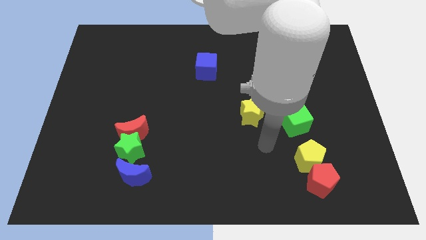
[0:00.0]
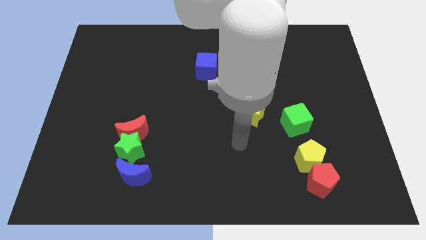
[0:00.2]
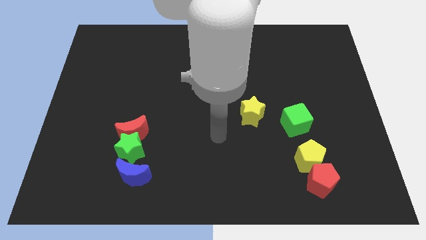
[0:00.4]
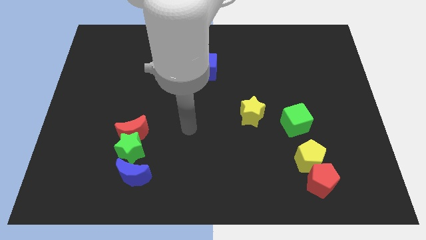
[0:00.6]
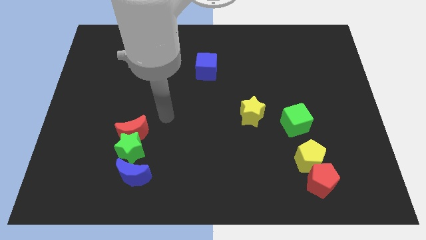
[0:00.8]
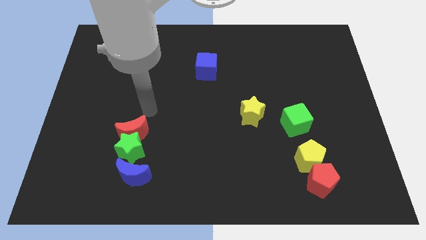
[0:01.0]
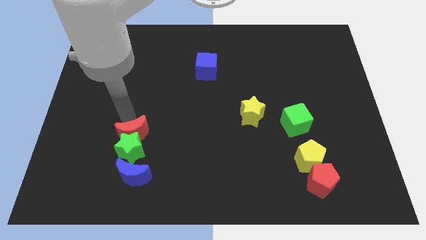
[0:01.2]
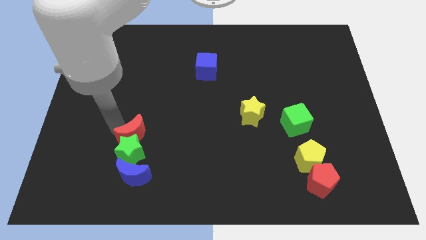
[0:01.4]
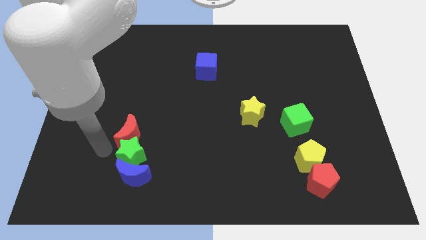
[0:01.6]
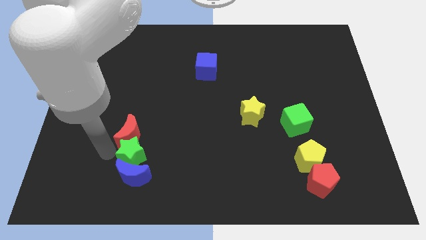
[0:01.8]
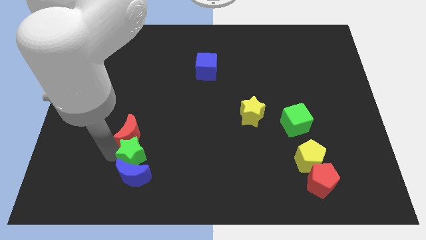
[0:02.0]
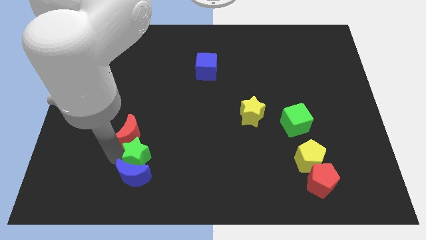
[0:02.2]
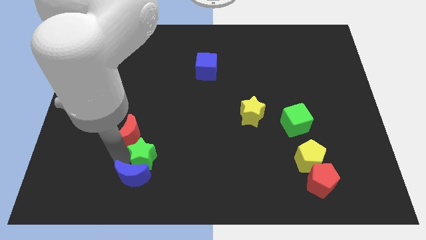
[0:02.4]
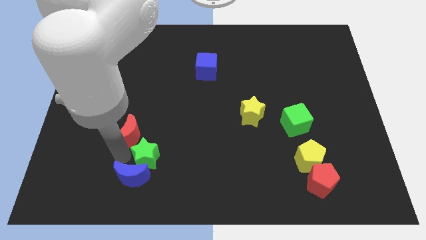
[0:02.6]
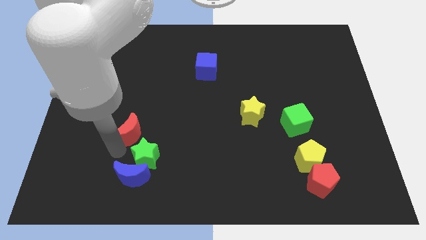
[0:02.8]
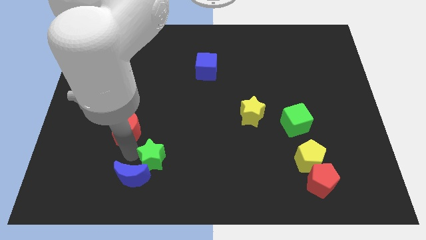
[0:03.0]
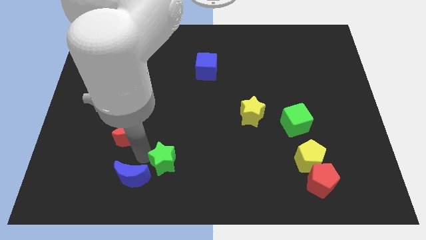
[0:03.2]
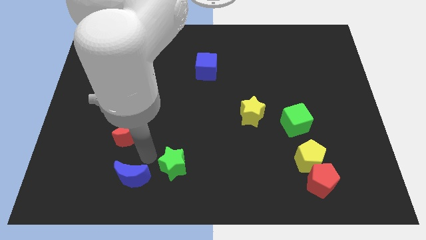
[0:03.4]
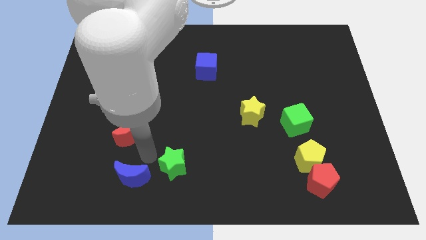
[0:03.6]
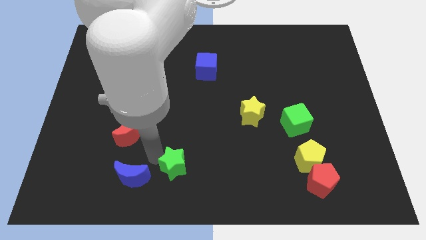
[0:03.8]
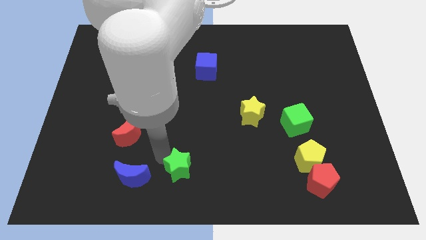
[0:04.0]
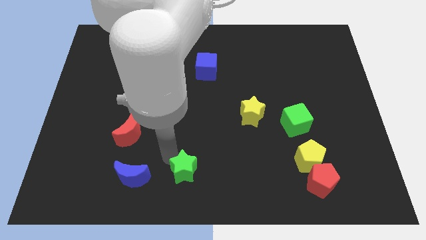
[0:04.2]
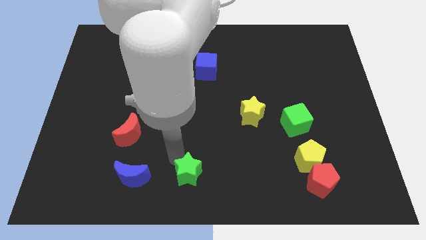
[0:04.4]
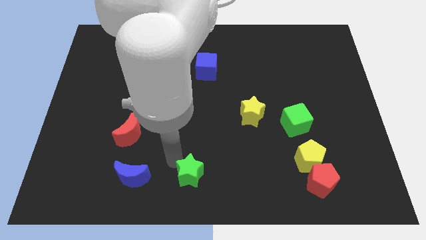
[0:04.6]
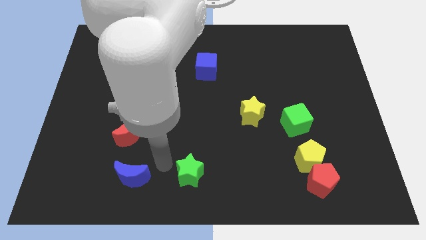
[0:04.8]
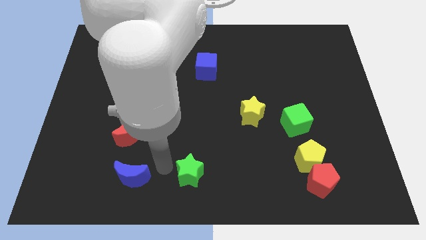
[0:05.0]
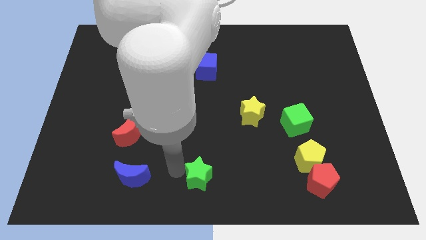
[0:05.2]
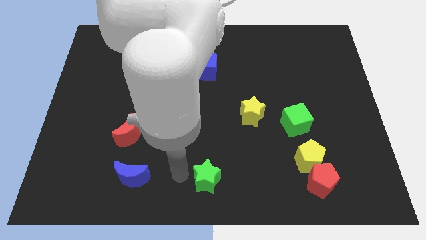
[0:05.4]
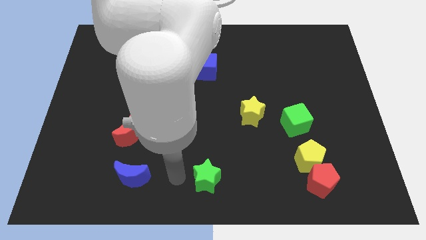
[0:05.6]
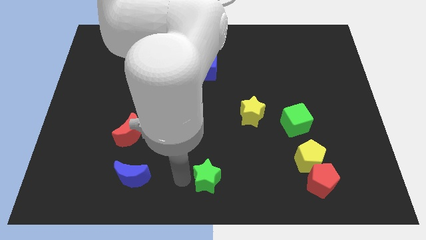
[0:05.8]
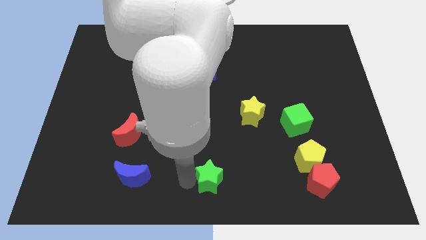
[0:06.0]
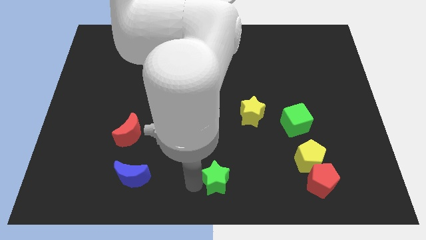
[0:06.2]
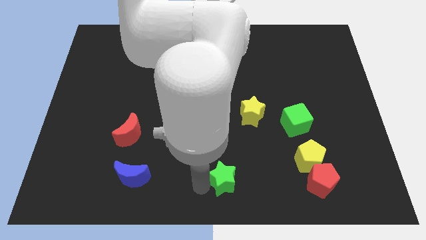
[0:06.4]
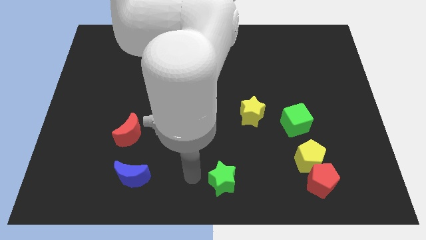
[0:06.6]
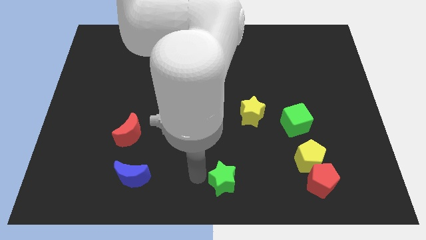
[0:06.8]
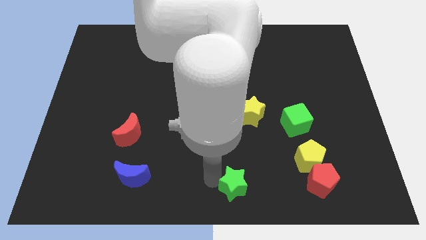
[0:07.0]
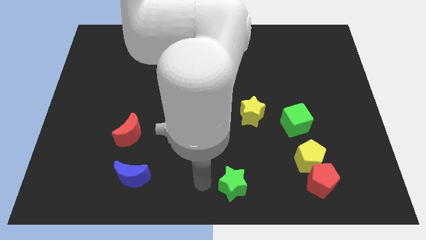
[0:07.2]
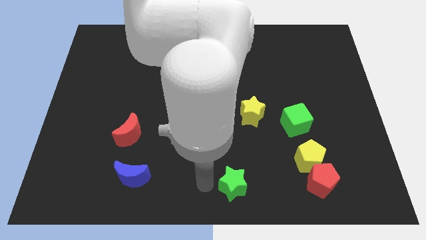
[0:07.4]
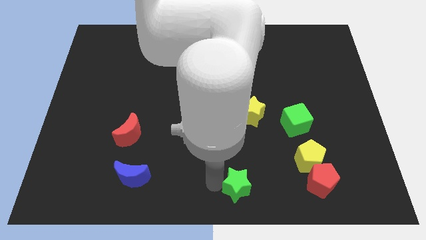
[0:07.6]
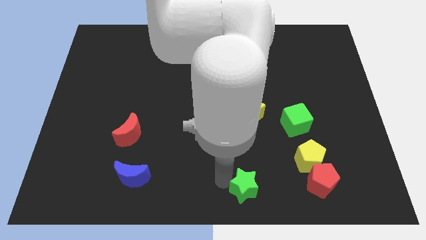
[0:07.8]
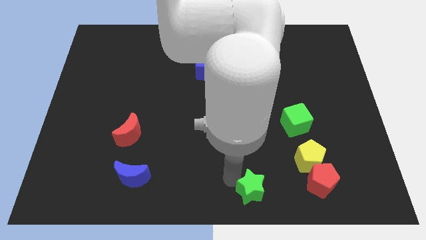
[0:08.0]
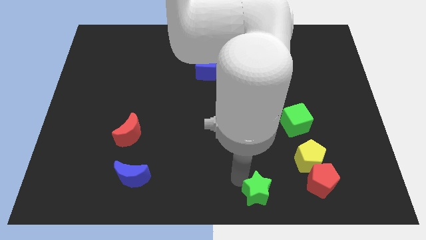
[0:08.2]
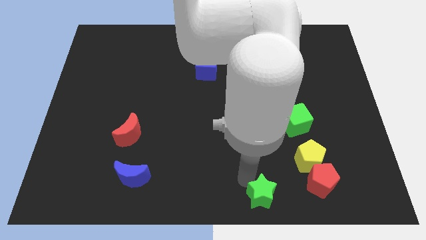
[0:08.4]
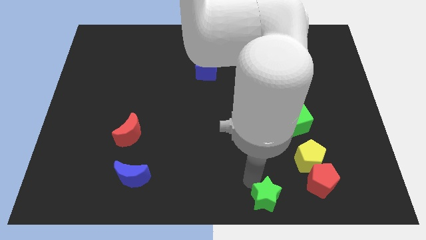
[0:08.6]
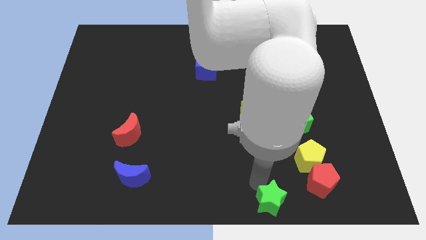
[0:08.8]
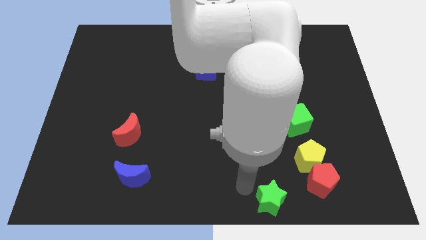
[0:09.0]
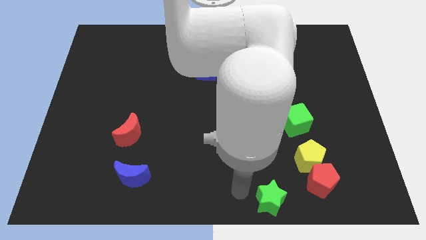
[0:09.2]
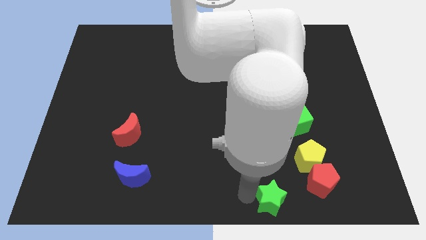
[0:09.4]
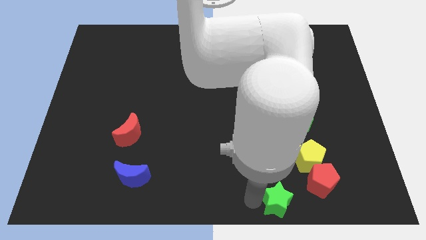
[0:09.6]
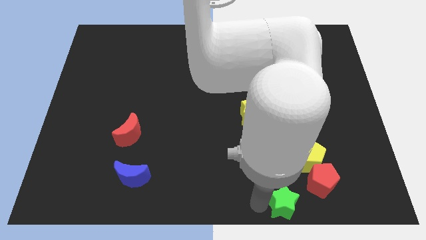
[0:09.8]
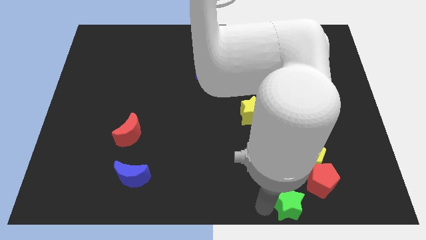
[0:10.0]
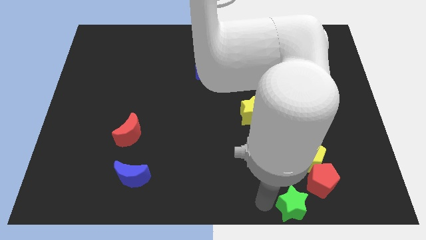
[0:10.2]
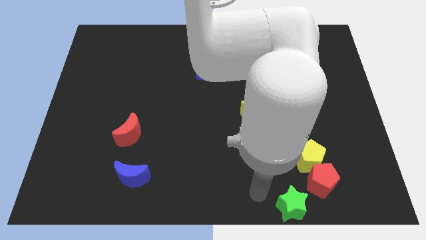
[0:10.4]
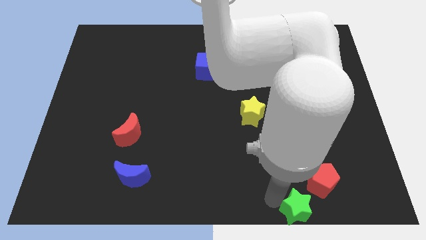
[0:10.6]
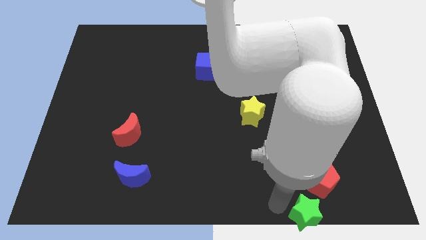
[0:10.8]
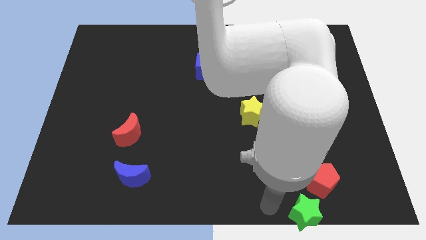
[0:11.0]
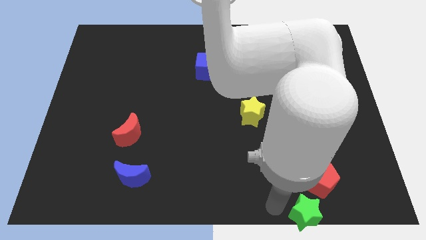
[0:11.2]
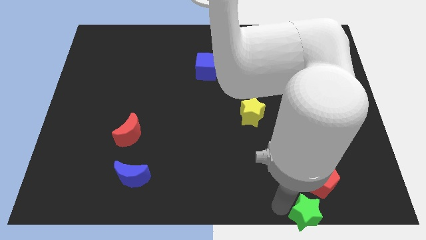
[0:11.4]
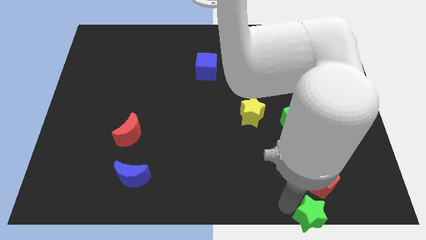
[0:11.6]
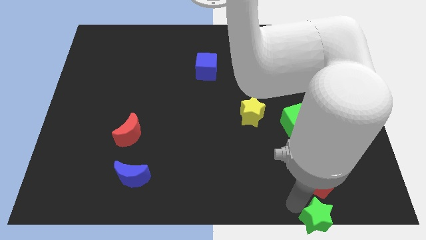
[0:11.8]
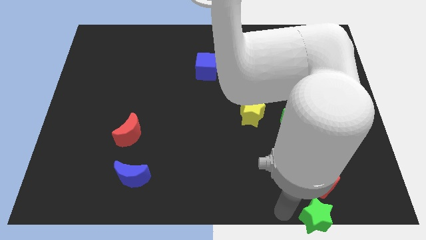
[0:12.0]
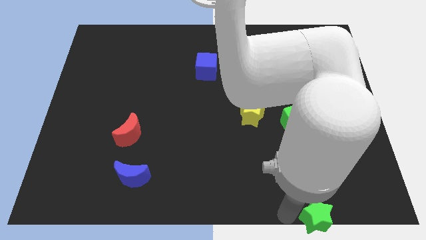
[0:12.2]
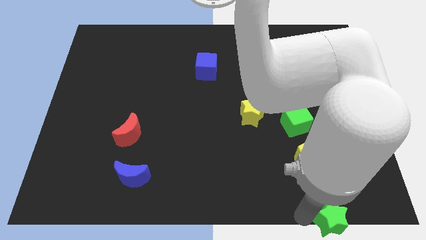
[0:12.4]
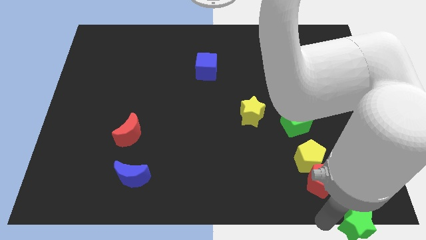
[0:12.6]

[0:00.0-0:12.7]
move the green star to the bottom right of the board
